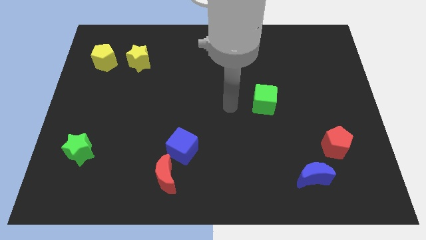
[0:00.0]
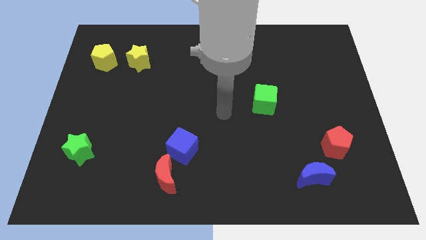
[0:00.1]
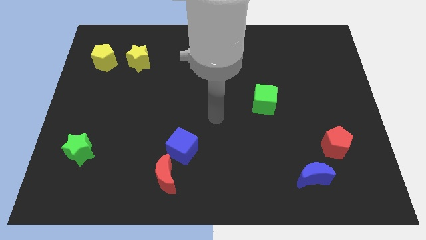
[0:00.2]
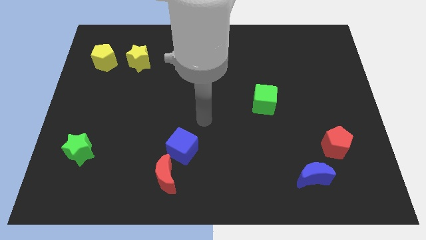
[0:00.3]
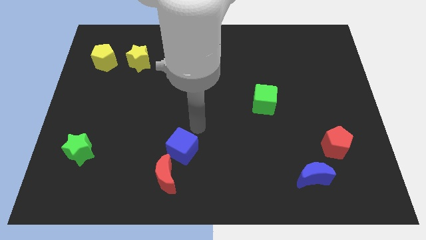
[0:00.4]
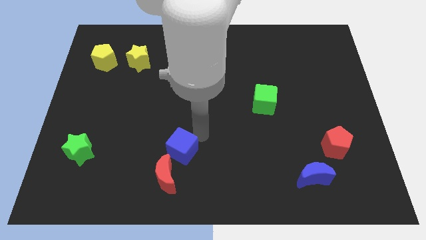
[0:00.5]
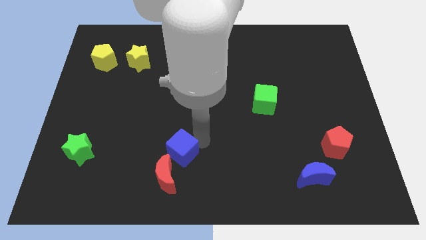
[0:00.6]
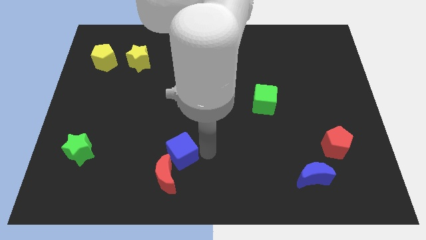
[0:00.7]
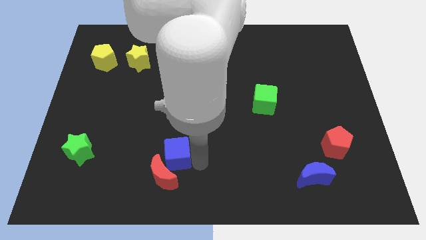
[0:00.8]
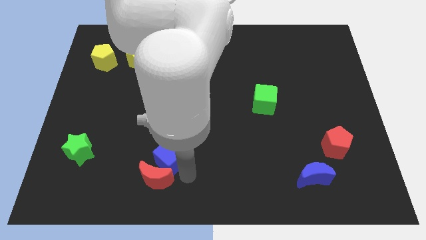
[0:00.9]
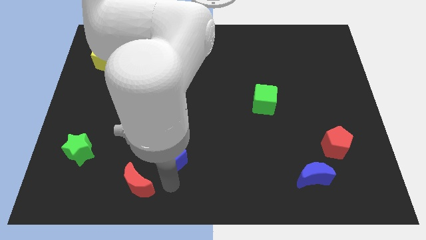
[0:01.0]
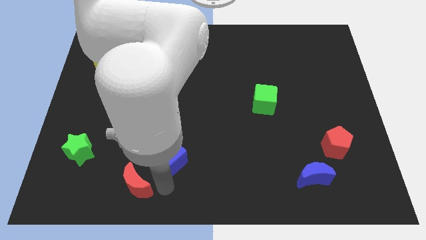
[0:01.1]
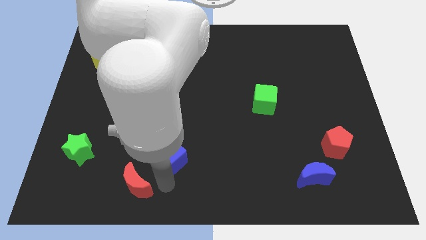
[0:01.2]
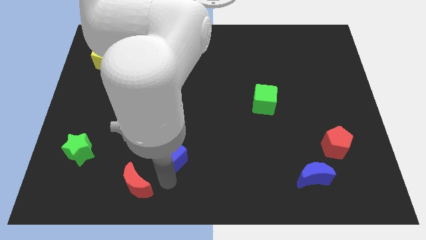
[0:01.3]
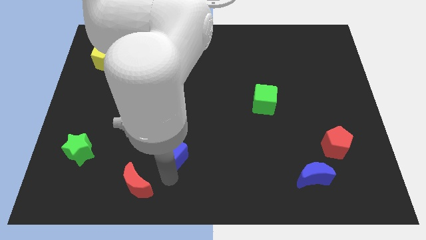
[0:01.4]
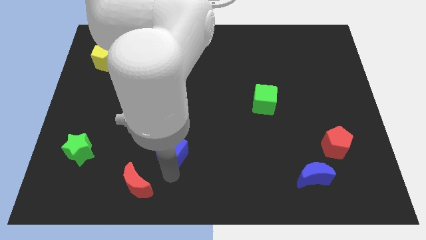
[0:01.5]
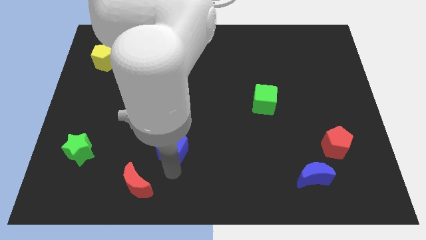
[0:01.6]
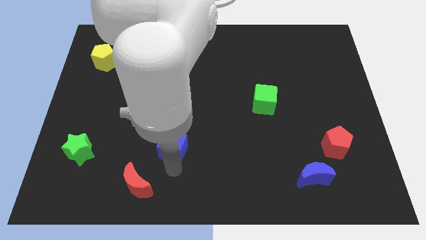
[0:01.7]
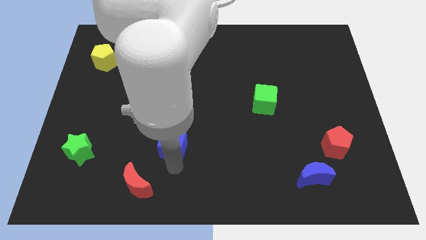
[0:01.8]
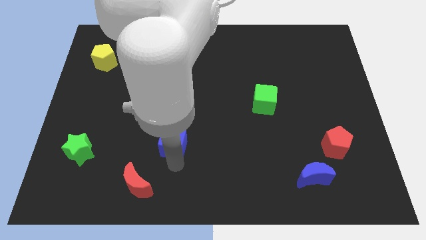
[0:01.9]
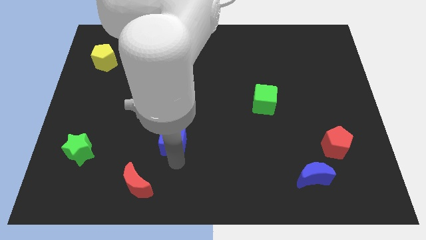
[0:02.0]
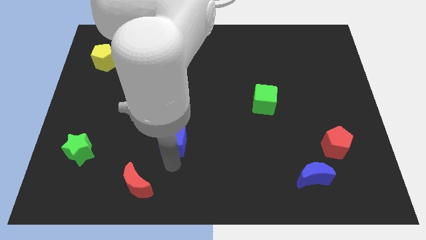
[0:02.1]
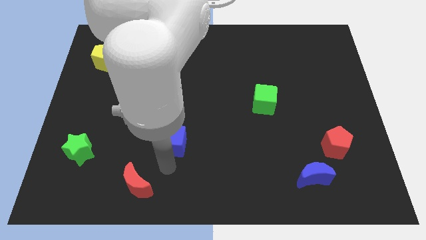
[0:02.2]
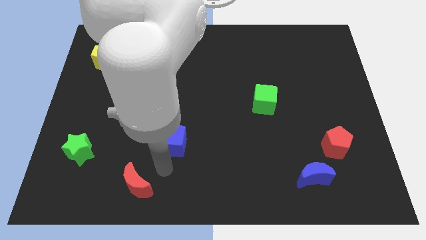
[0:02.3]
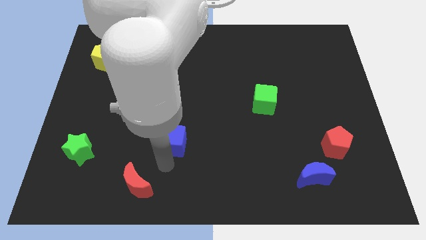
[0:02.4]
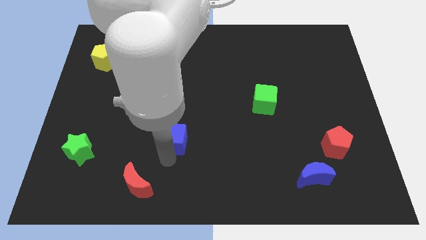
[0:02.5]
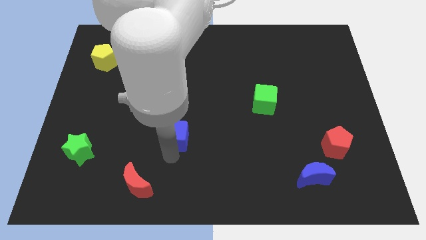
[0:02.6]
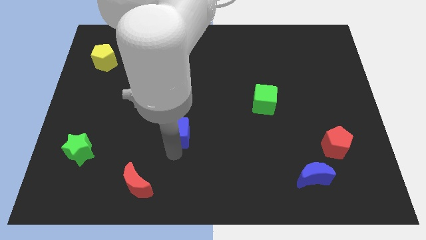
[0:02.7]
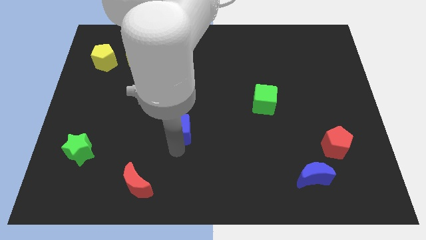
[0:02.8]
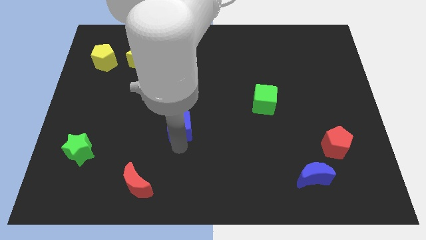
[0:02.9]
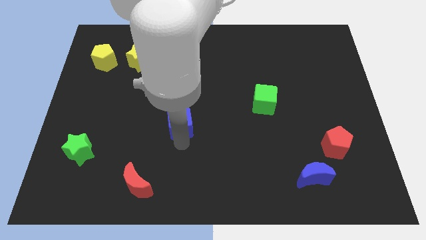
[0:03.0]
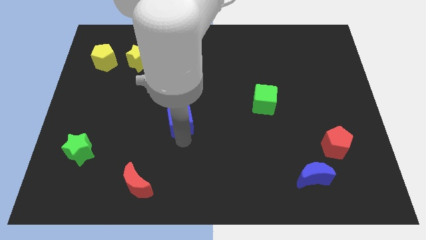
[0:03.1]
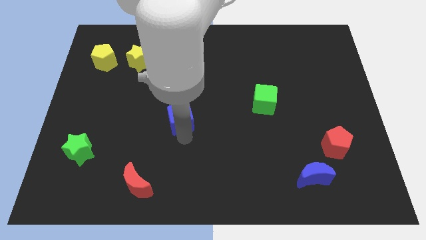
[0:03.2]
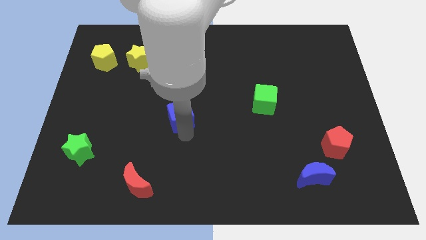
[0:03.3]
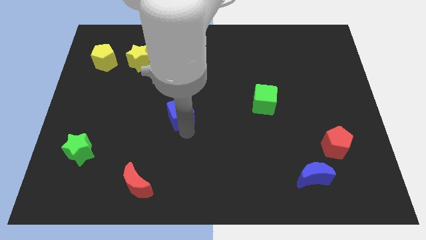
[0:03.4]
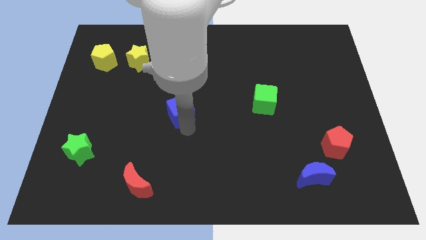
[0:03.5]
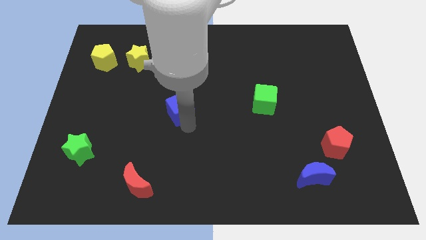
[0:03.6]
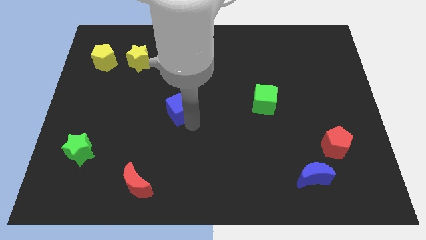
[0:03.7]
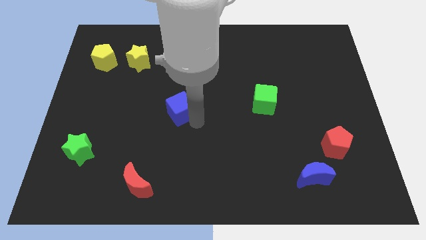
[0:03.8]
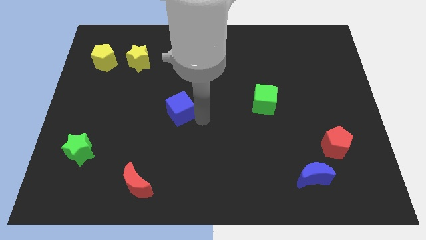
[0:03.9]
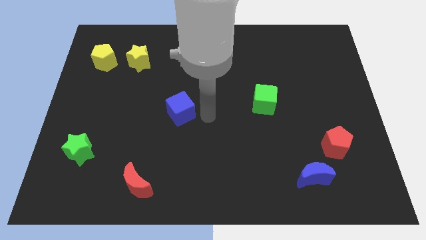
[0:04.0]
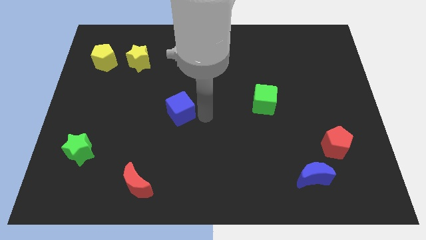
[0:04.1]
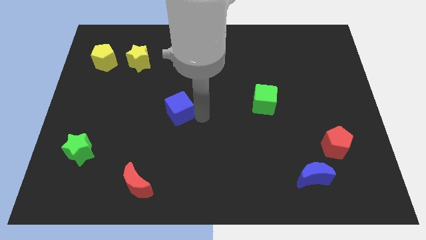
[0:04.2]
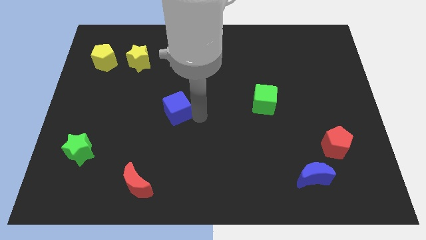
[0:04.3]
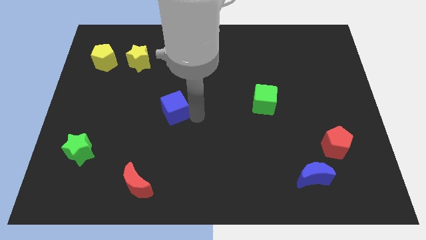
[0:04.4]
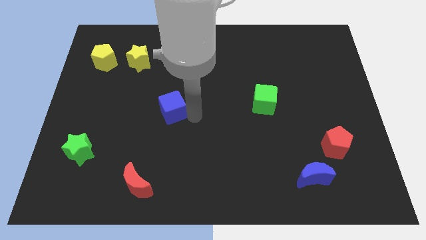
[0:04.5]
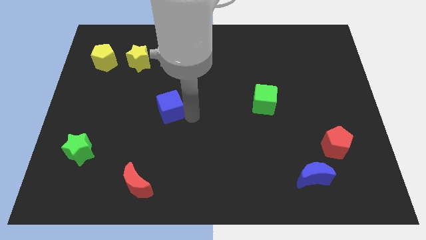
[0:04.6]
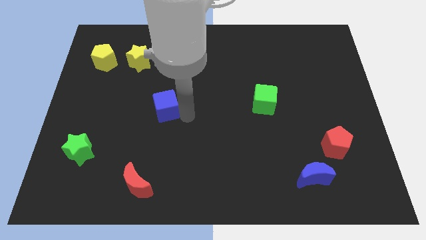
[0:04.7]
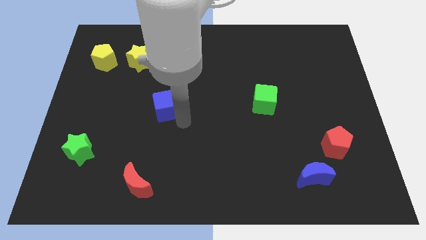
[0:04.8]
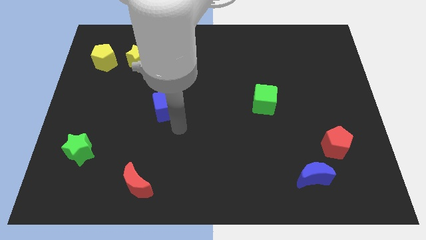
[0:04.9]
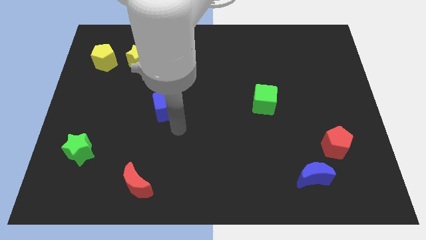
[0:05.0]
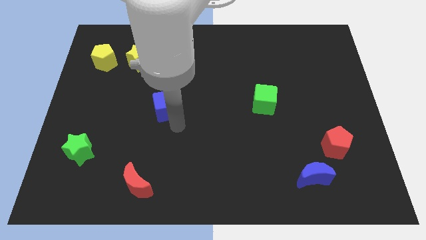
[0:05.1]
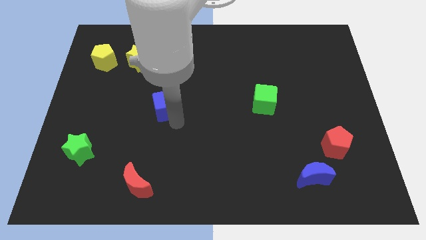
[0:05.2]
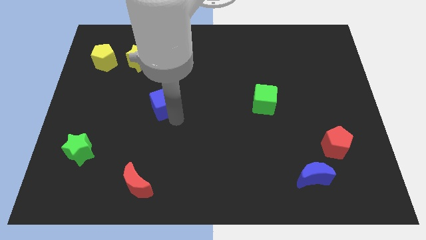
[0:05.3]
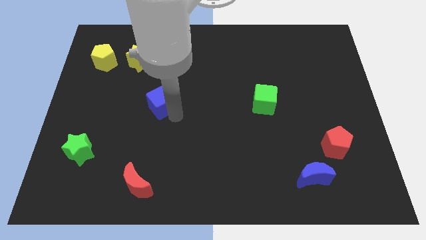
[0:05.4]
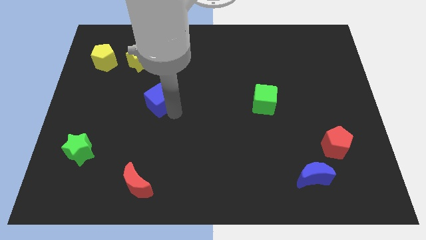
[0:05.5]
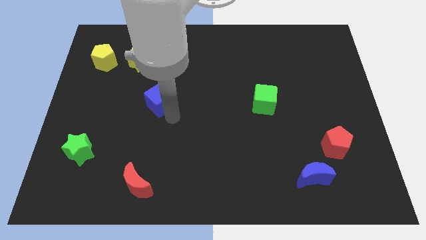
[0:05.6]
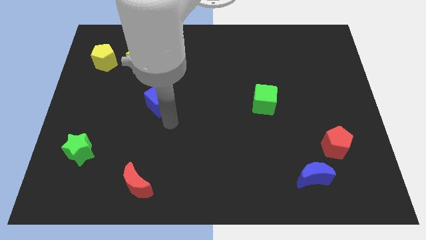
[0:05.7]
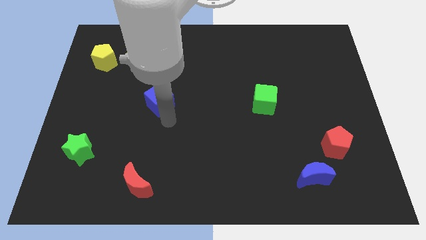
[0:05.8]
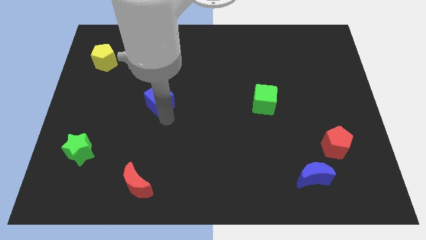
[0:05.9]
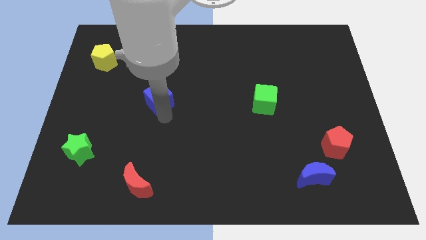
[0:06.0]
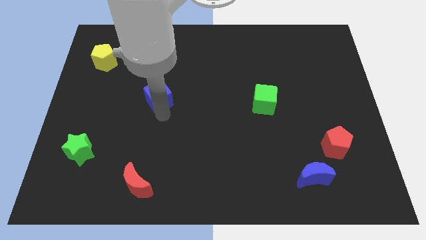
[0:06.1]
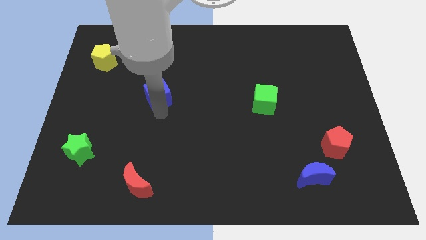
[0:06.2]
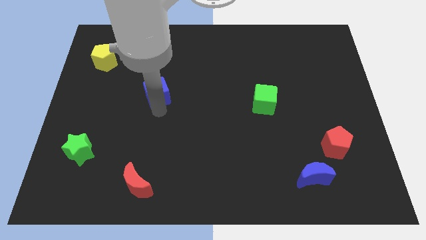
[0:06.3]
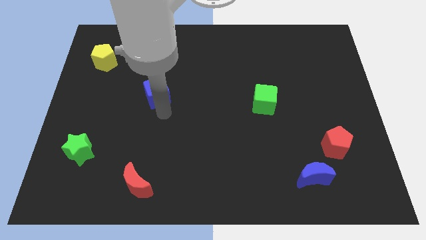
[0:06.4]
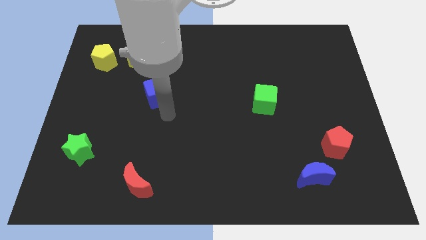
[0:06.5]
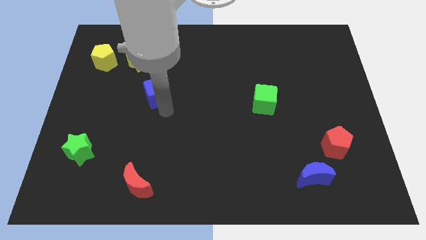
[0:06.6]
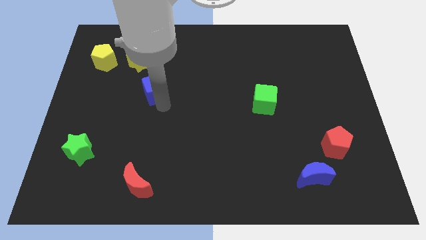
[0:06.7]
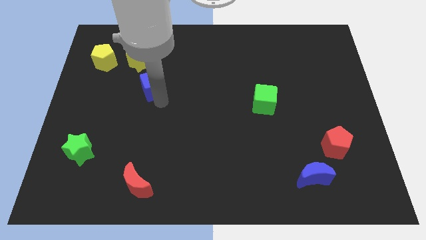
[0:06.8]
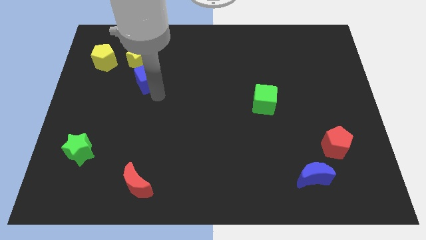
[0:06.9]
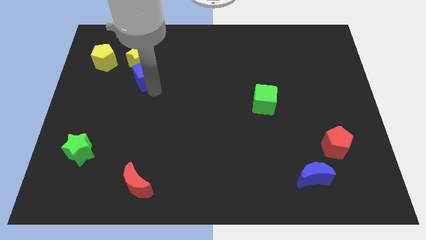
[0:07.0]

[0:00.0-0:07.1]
move the blue cube next to the yellow star

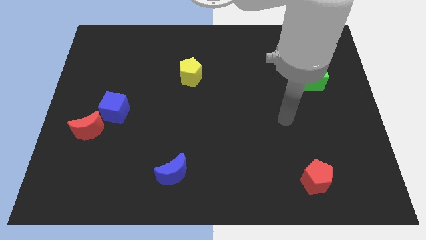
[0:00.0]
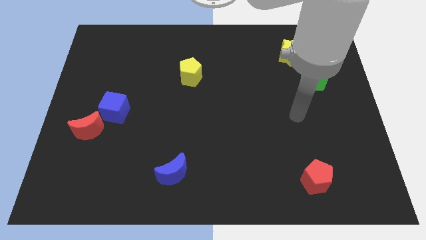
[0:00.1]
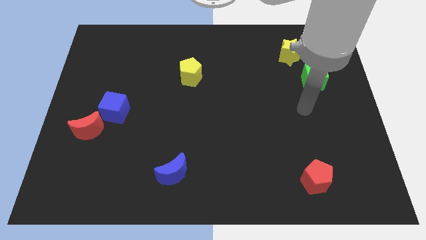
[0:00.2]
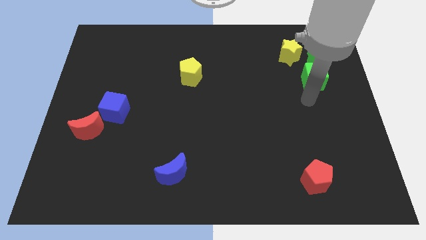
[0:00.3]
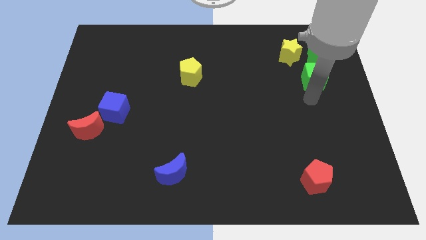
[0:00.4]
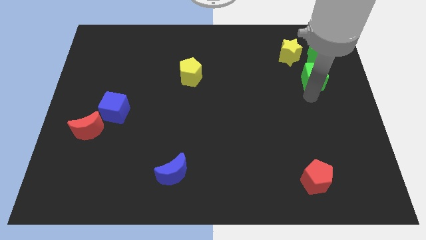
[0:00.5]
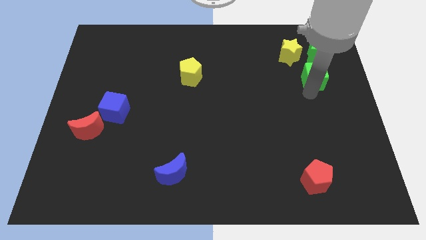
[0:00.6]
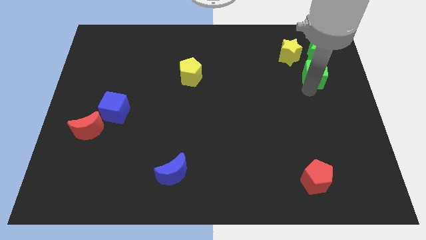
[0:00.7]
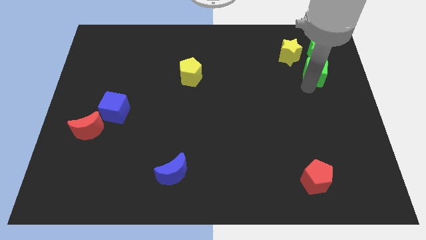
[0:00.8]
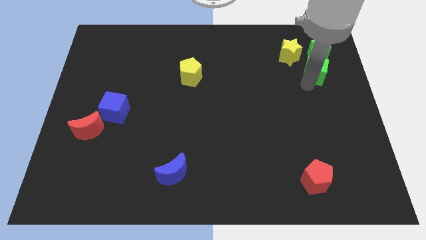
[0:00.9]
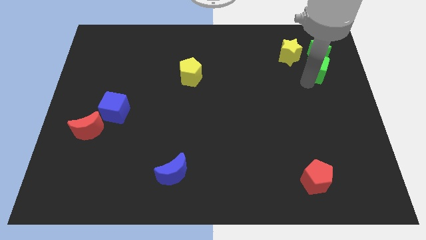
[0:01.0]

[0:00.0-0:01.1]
move the green cube to the green star
